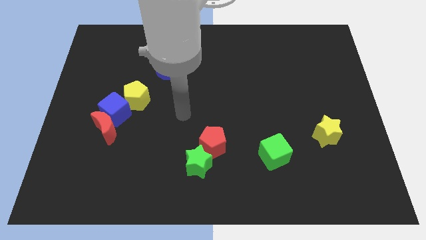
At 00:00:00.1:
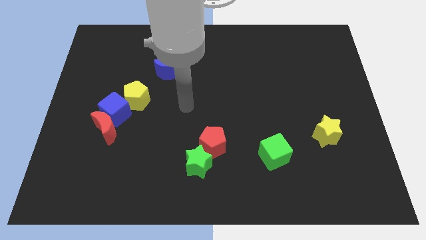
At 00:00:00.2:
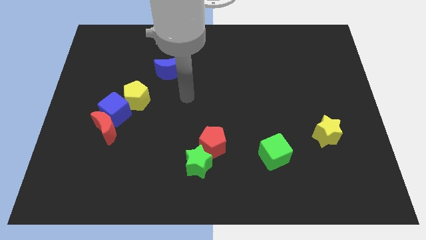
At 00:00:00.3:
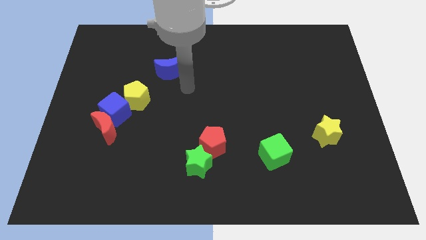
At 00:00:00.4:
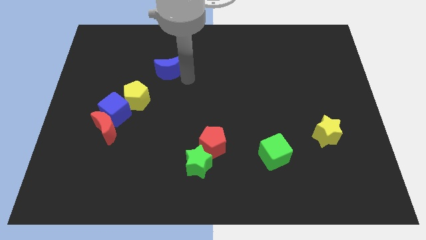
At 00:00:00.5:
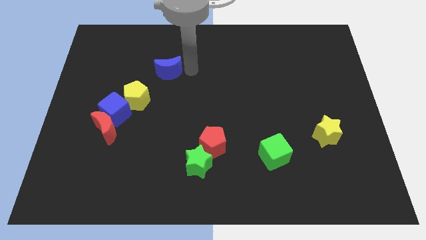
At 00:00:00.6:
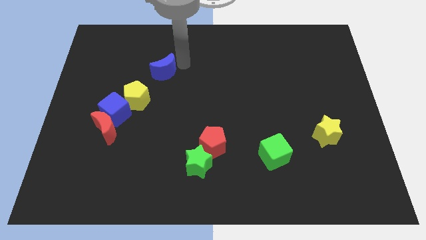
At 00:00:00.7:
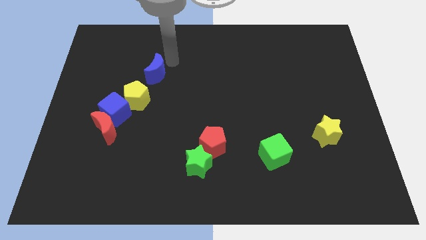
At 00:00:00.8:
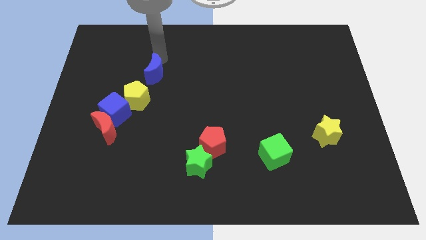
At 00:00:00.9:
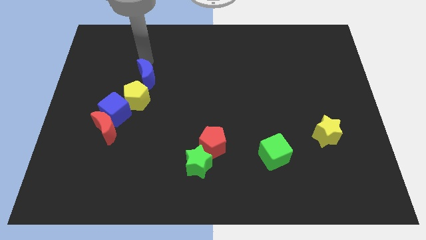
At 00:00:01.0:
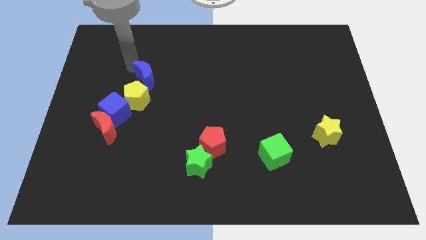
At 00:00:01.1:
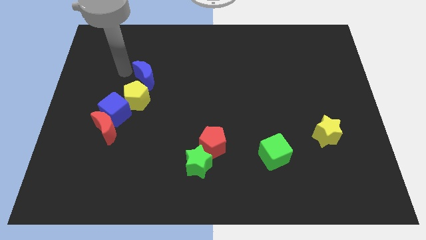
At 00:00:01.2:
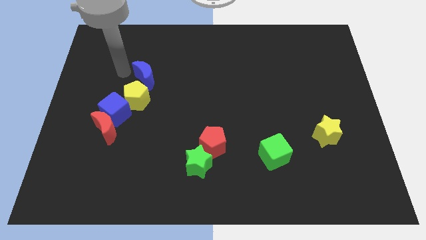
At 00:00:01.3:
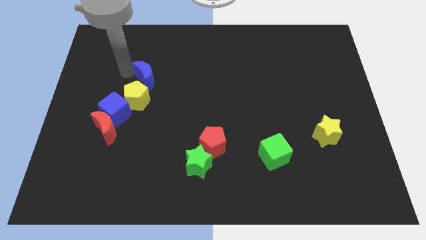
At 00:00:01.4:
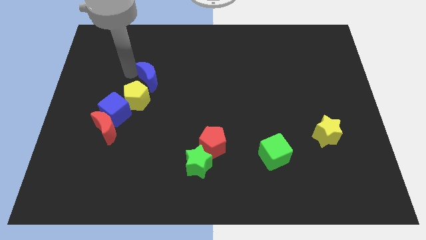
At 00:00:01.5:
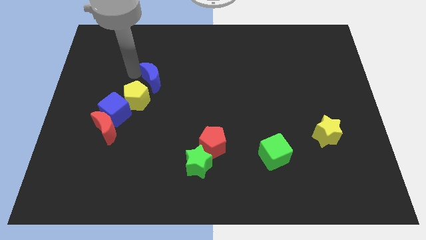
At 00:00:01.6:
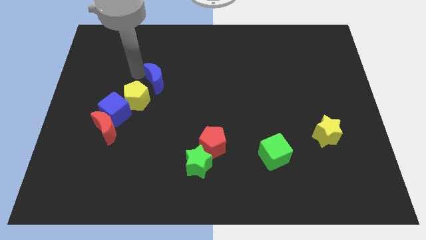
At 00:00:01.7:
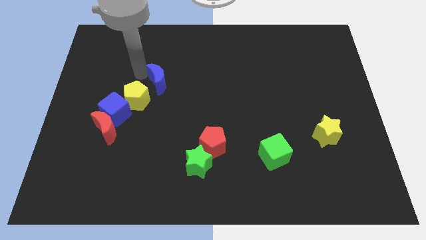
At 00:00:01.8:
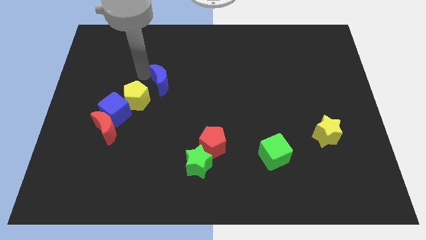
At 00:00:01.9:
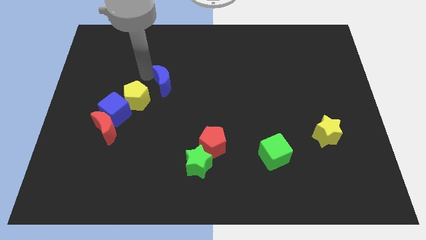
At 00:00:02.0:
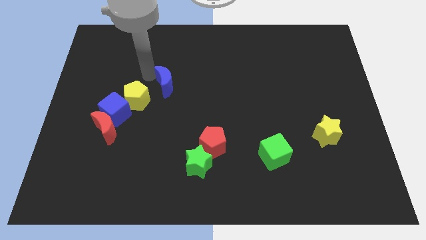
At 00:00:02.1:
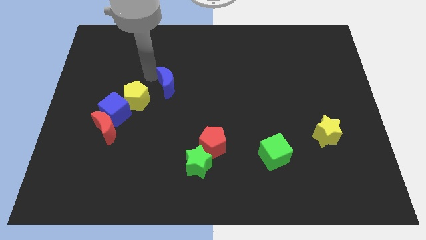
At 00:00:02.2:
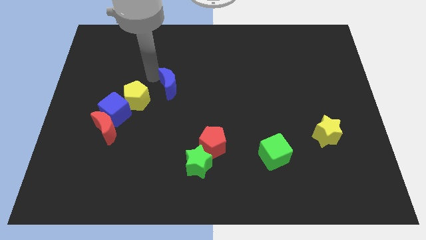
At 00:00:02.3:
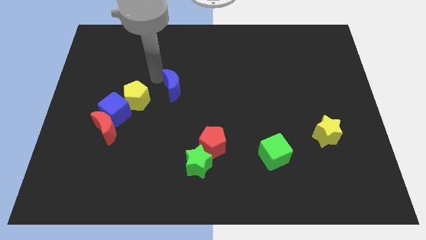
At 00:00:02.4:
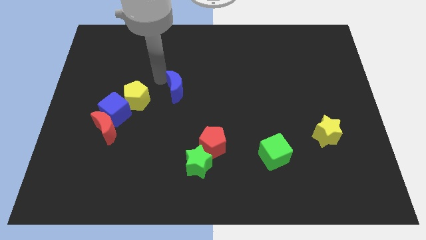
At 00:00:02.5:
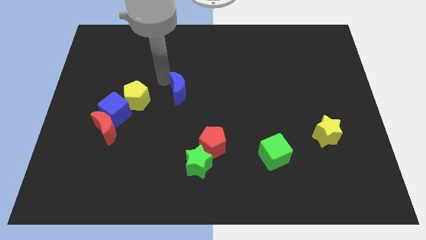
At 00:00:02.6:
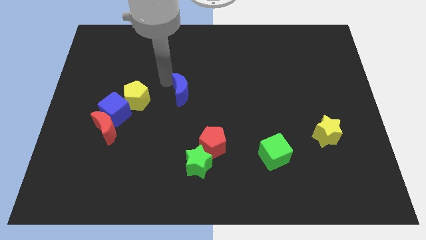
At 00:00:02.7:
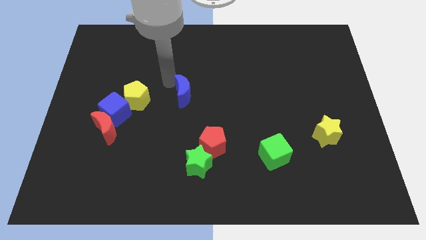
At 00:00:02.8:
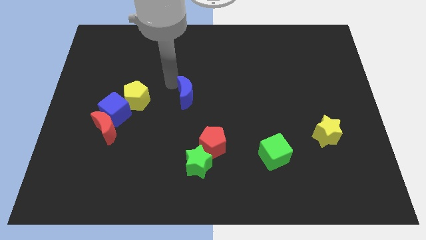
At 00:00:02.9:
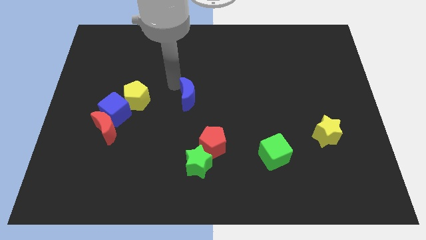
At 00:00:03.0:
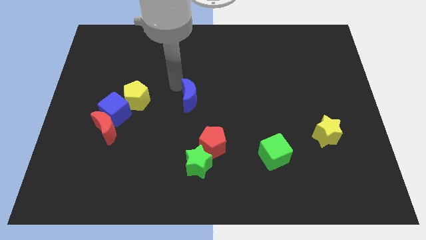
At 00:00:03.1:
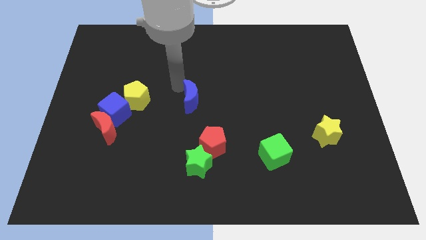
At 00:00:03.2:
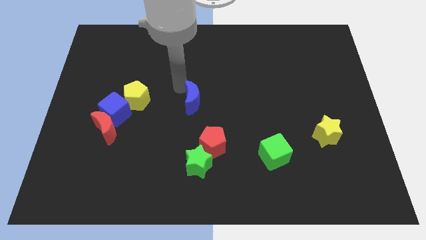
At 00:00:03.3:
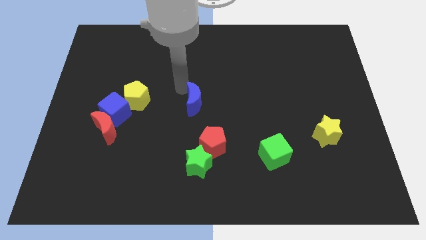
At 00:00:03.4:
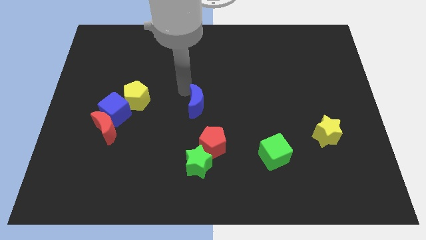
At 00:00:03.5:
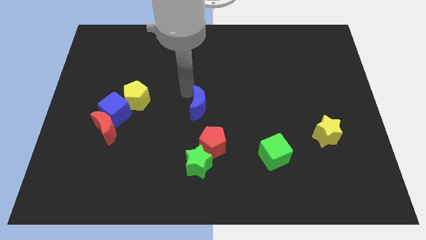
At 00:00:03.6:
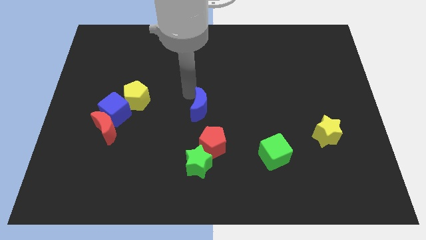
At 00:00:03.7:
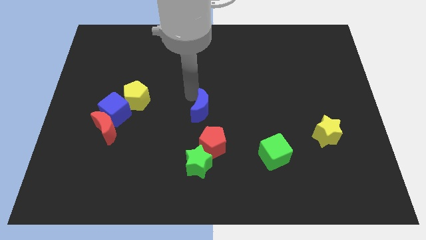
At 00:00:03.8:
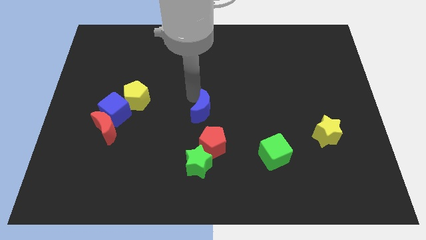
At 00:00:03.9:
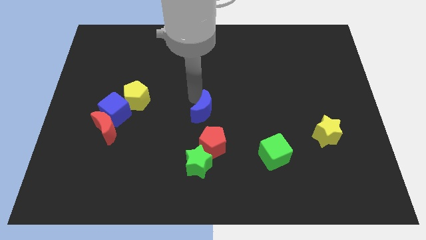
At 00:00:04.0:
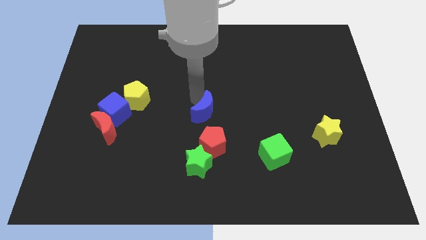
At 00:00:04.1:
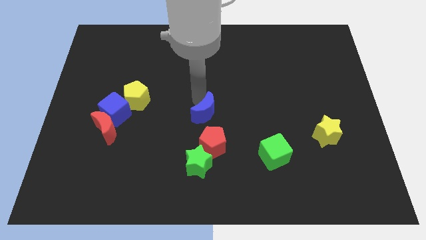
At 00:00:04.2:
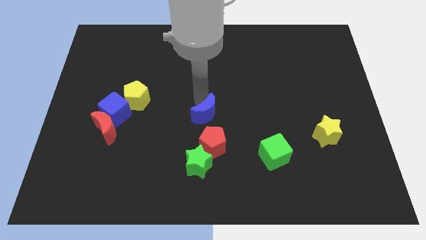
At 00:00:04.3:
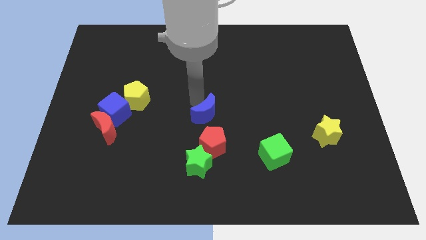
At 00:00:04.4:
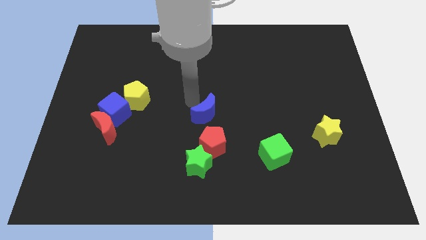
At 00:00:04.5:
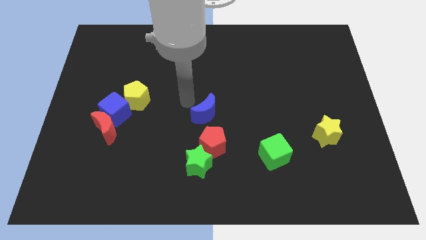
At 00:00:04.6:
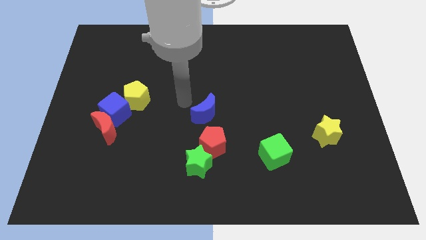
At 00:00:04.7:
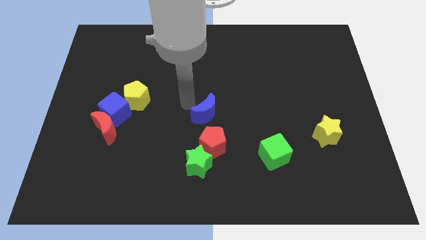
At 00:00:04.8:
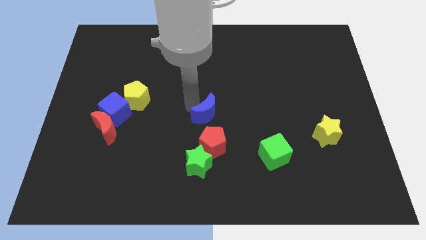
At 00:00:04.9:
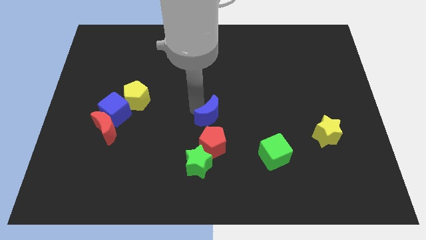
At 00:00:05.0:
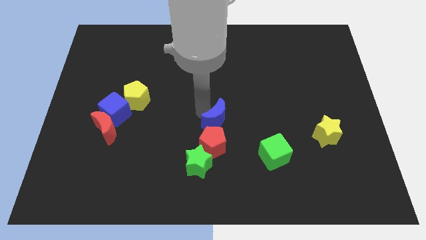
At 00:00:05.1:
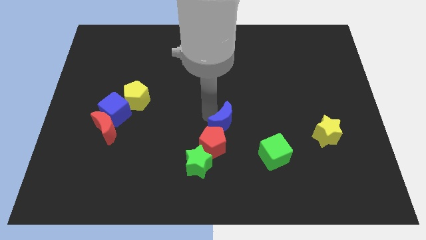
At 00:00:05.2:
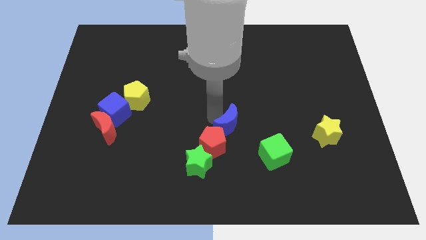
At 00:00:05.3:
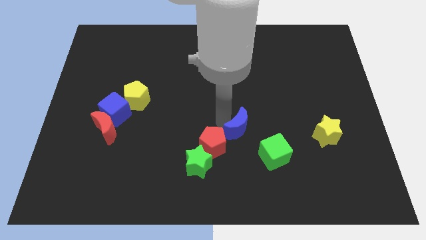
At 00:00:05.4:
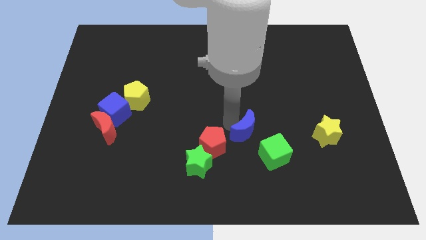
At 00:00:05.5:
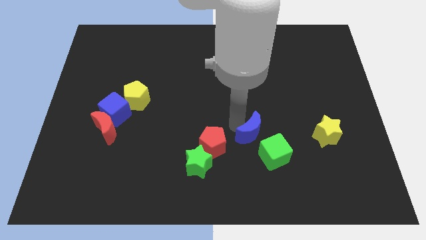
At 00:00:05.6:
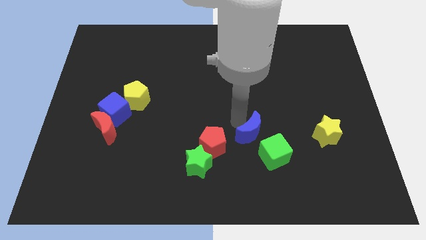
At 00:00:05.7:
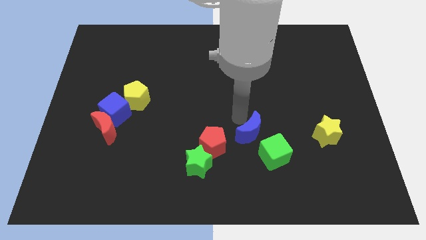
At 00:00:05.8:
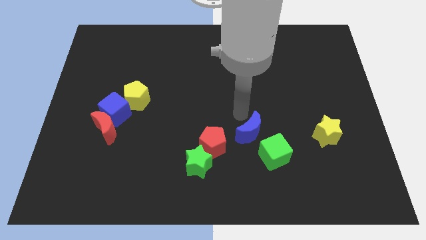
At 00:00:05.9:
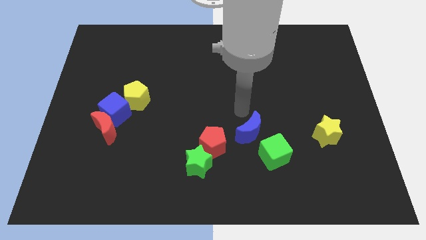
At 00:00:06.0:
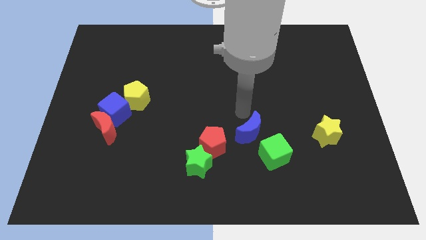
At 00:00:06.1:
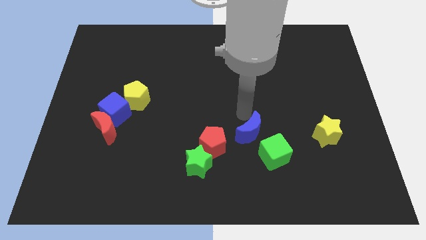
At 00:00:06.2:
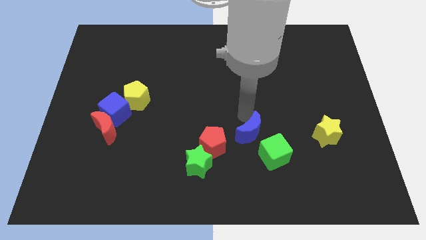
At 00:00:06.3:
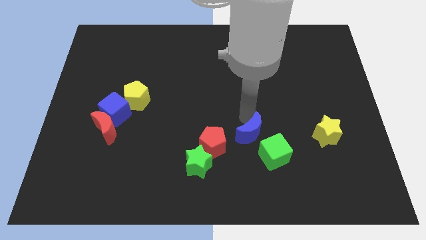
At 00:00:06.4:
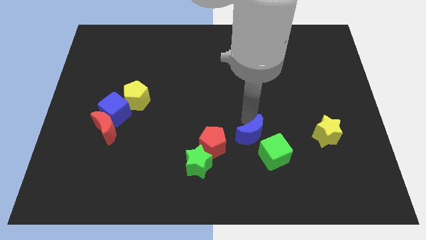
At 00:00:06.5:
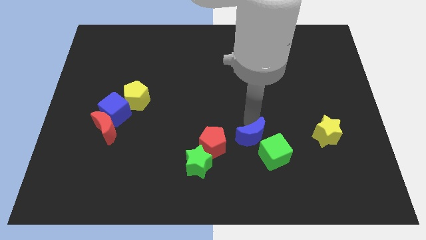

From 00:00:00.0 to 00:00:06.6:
slide the blue moon towards the green cube

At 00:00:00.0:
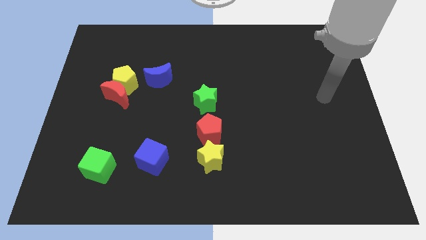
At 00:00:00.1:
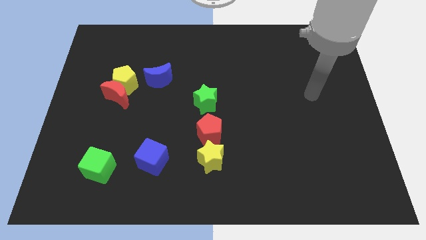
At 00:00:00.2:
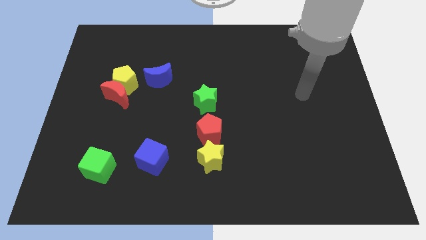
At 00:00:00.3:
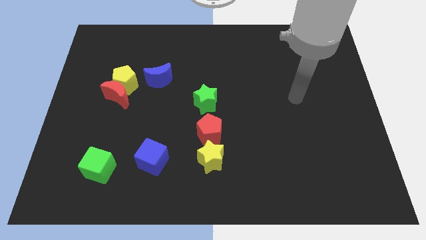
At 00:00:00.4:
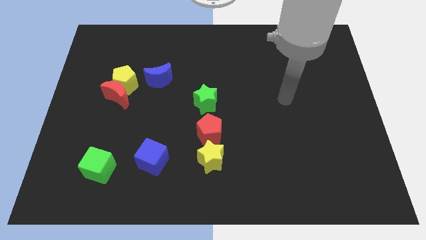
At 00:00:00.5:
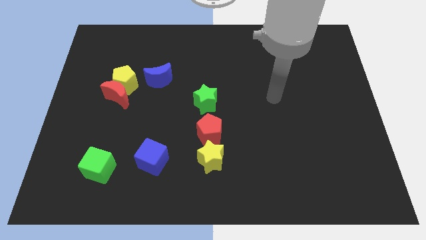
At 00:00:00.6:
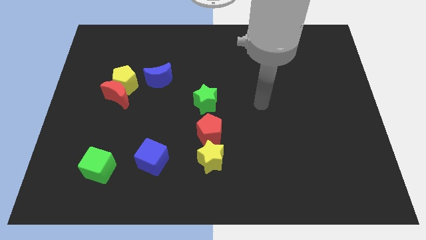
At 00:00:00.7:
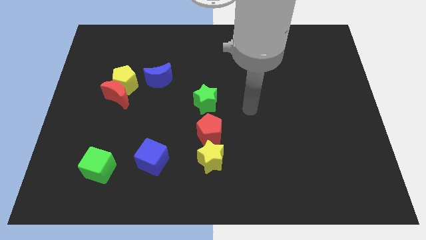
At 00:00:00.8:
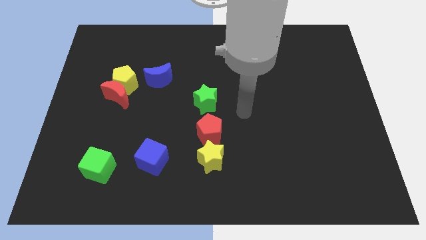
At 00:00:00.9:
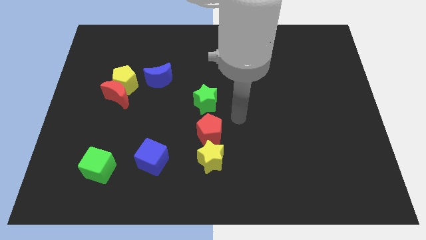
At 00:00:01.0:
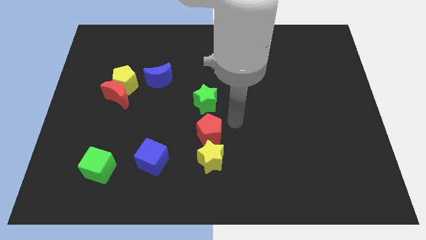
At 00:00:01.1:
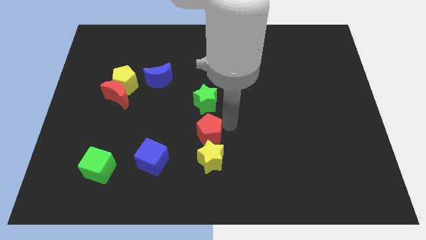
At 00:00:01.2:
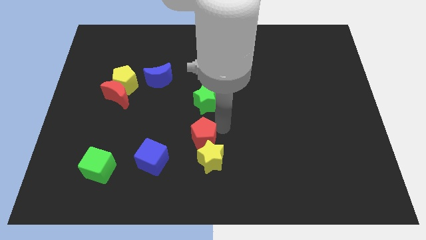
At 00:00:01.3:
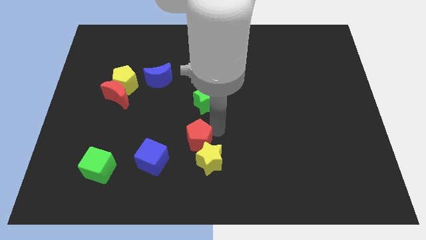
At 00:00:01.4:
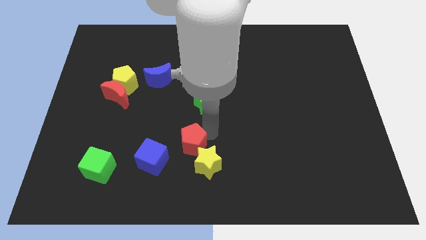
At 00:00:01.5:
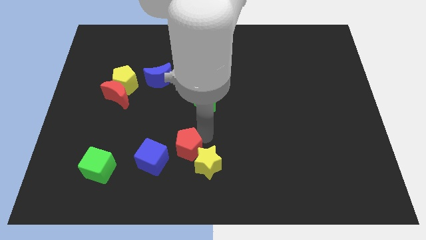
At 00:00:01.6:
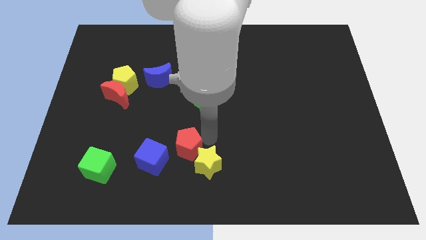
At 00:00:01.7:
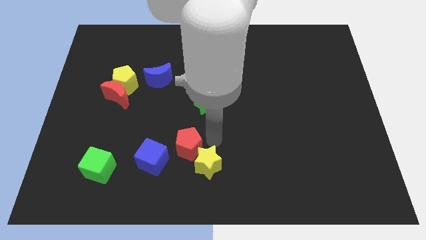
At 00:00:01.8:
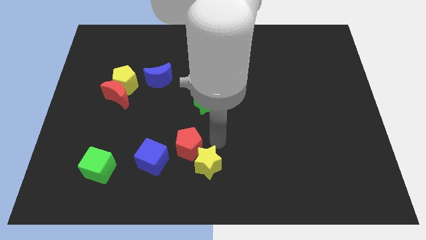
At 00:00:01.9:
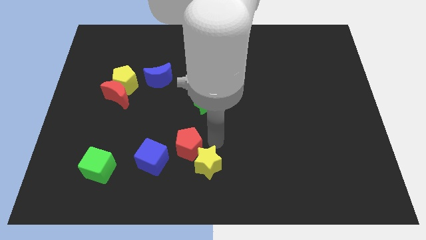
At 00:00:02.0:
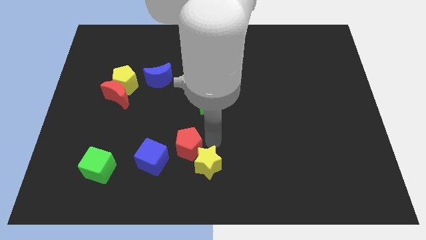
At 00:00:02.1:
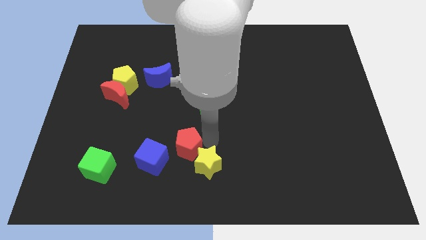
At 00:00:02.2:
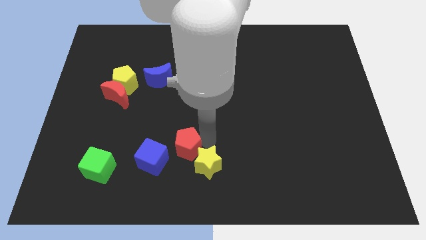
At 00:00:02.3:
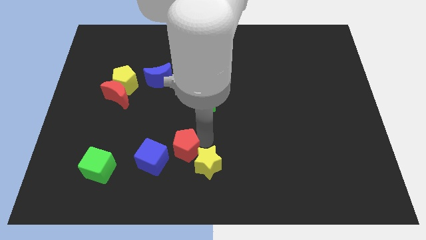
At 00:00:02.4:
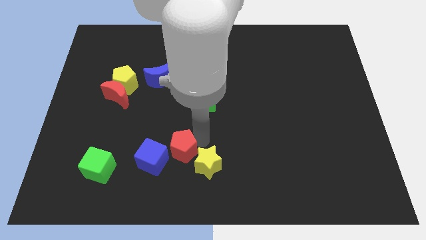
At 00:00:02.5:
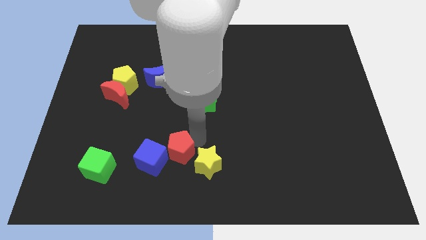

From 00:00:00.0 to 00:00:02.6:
move the red pentagon to the blue cube
